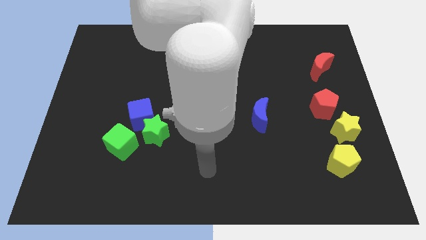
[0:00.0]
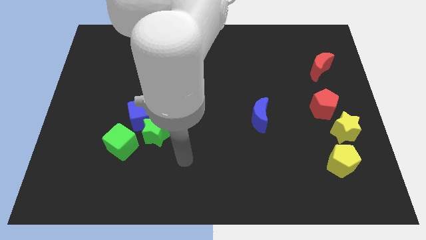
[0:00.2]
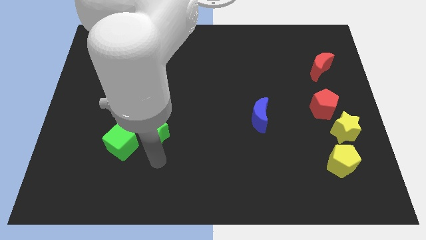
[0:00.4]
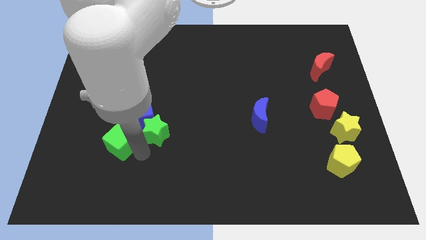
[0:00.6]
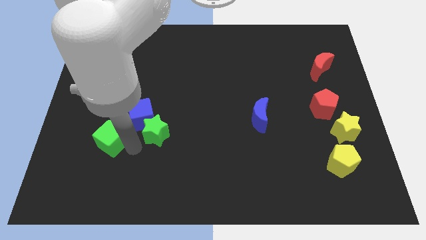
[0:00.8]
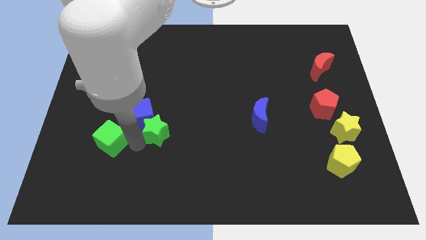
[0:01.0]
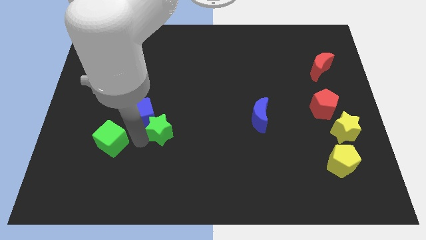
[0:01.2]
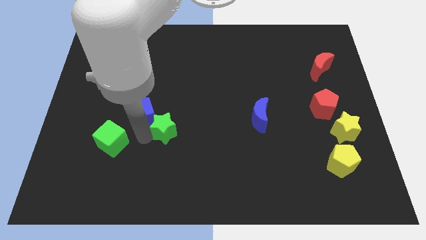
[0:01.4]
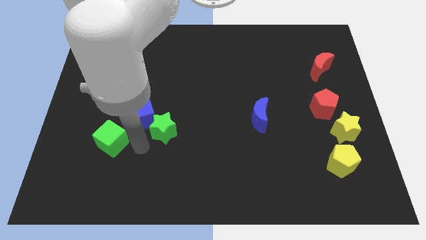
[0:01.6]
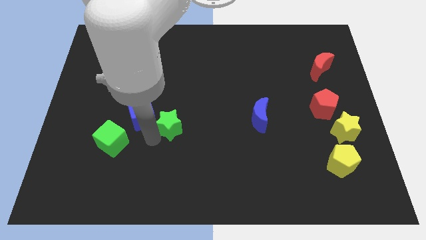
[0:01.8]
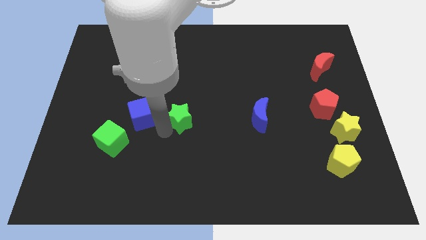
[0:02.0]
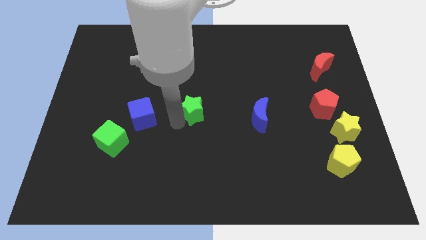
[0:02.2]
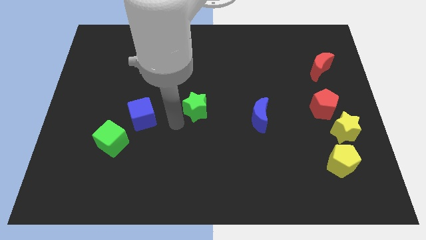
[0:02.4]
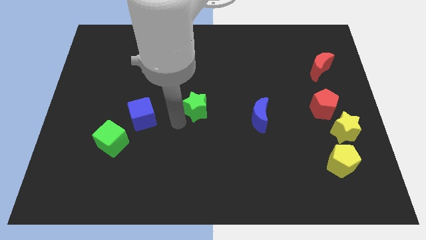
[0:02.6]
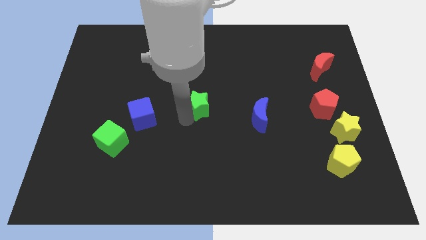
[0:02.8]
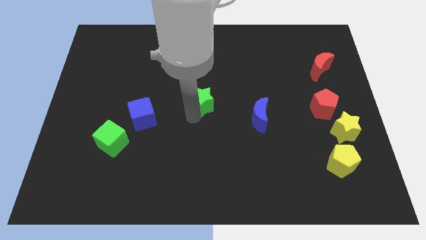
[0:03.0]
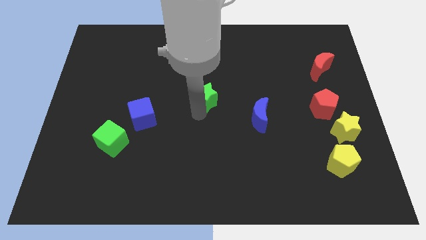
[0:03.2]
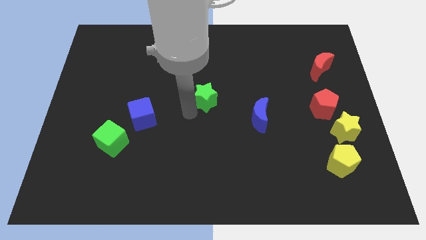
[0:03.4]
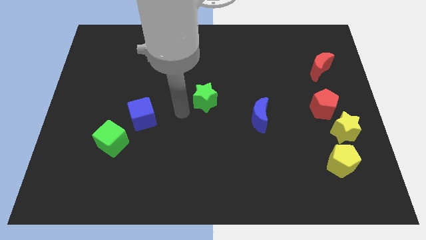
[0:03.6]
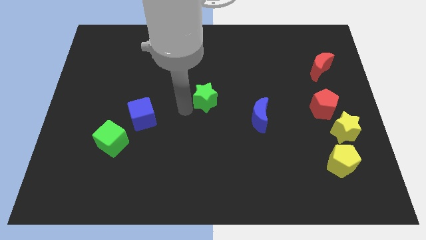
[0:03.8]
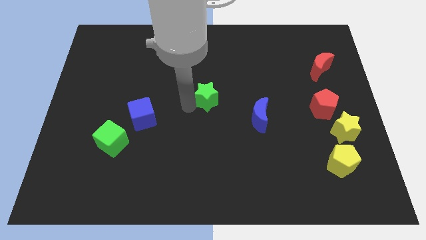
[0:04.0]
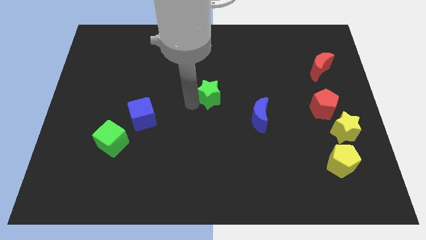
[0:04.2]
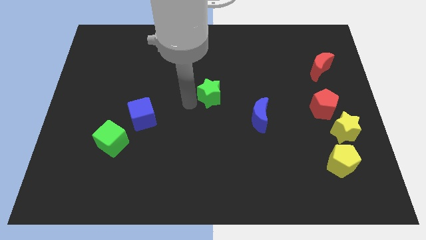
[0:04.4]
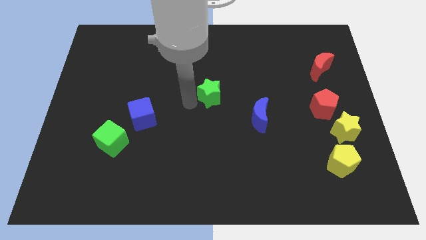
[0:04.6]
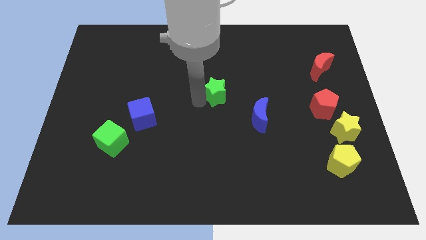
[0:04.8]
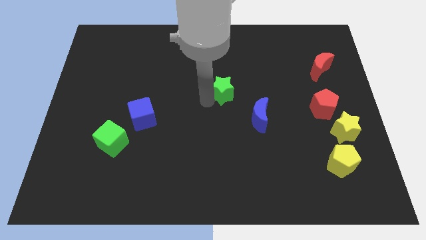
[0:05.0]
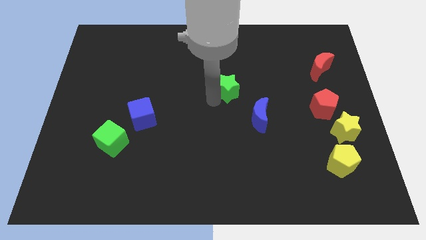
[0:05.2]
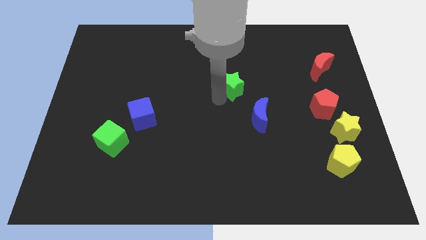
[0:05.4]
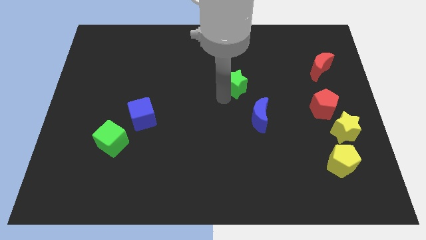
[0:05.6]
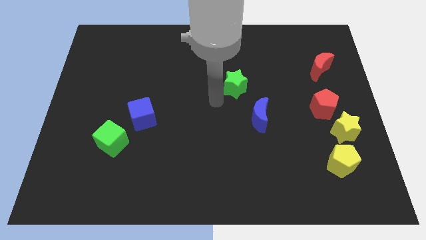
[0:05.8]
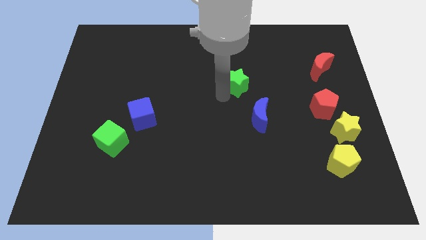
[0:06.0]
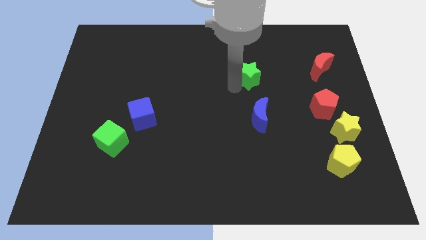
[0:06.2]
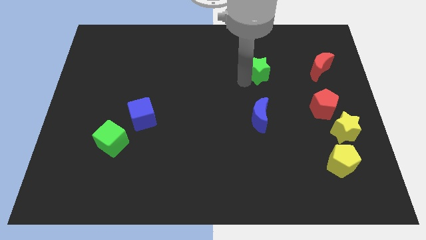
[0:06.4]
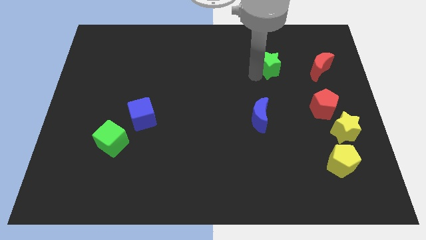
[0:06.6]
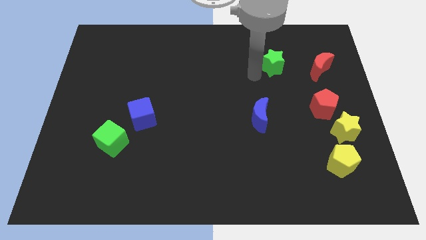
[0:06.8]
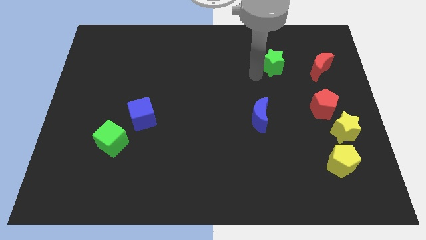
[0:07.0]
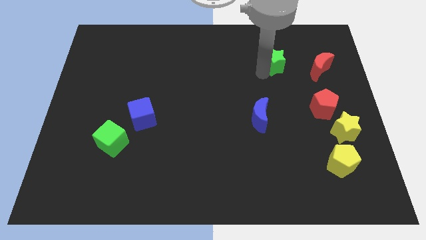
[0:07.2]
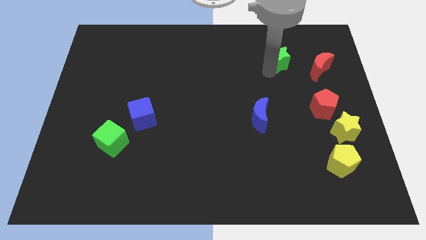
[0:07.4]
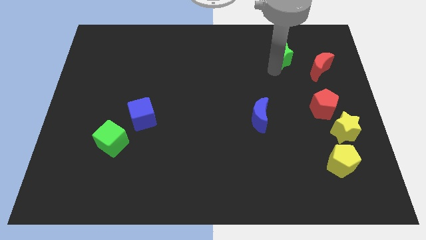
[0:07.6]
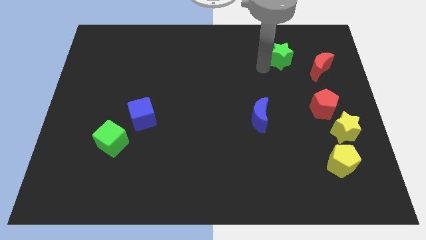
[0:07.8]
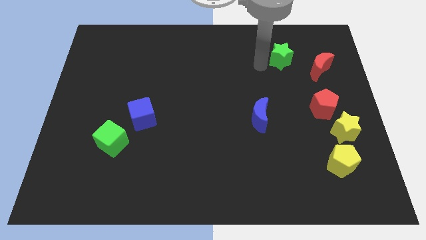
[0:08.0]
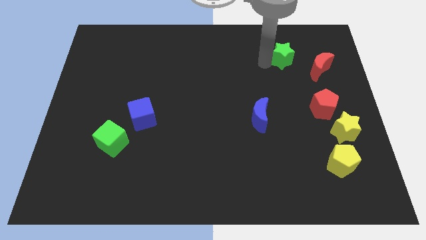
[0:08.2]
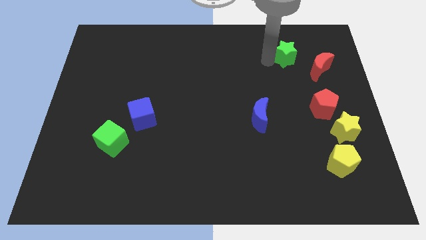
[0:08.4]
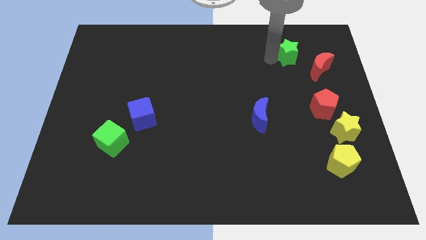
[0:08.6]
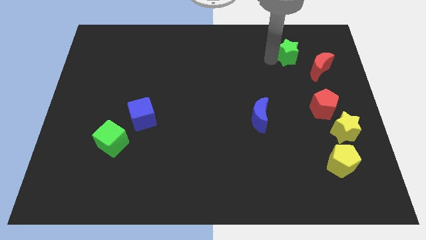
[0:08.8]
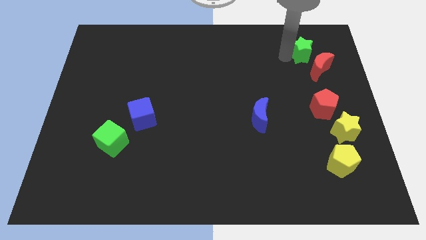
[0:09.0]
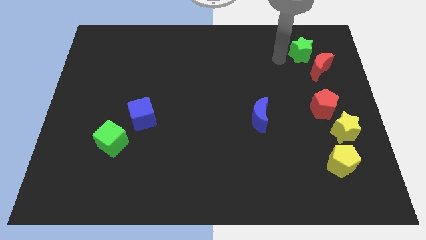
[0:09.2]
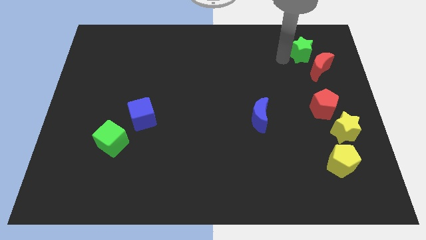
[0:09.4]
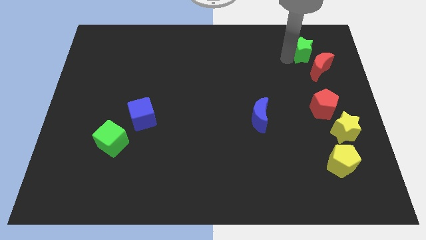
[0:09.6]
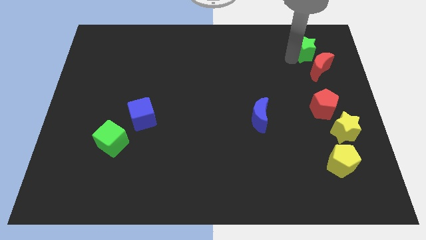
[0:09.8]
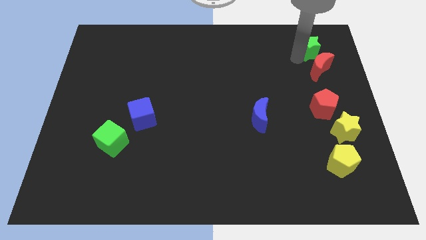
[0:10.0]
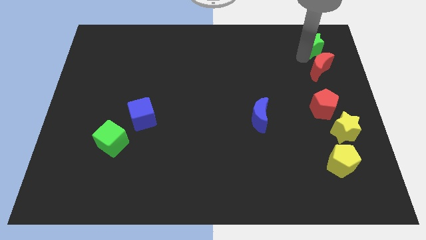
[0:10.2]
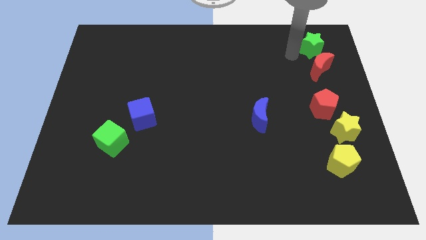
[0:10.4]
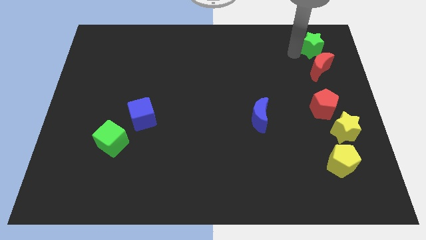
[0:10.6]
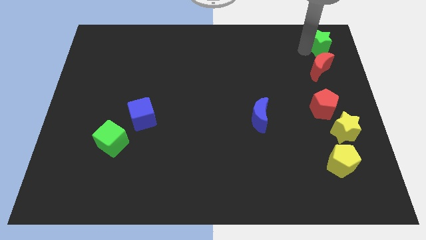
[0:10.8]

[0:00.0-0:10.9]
slide the green star to the top right of the board

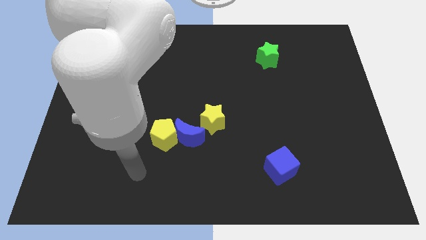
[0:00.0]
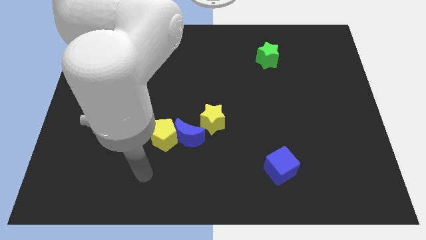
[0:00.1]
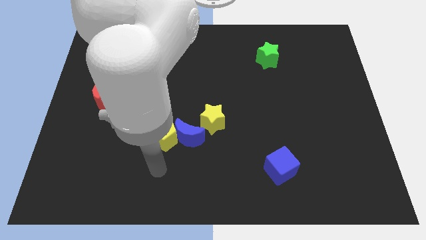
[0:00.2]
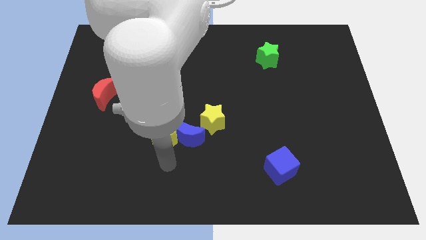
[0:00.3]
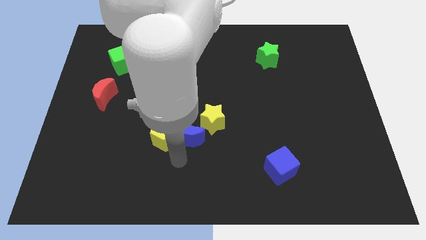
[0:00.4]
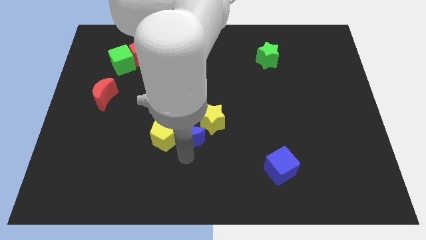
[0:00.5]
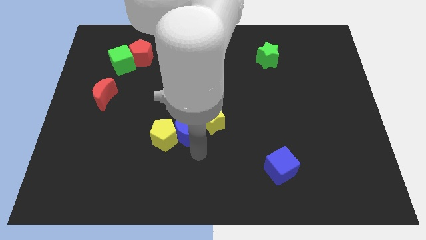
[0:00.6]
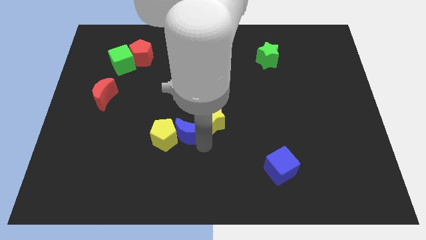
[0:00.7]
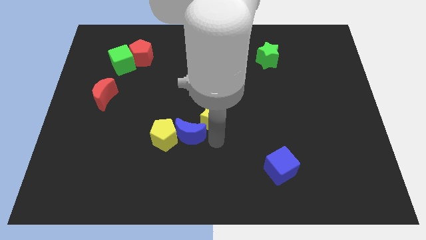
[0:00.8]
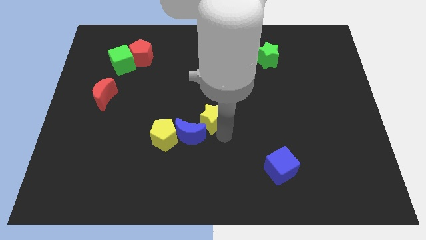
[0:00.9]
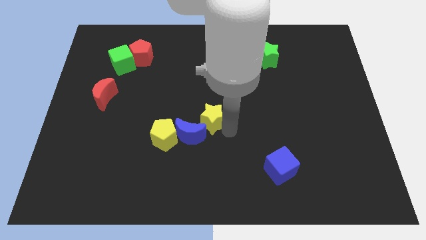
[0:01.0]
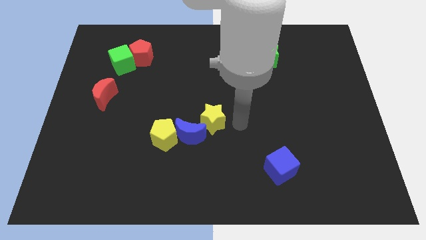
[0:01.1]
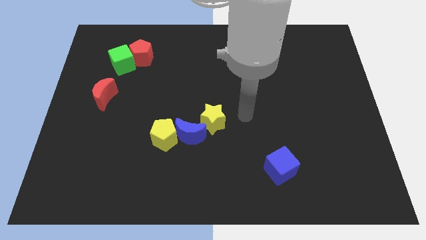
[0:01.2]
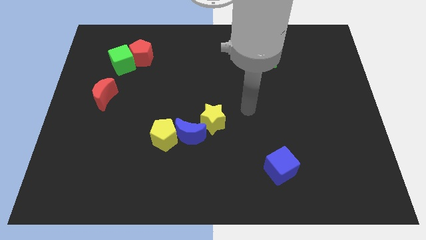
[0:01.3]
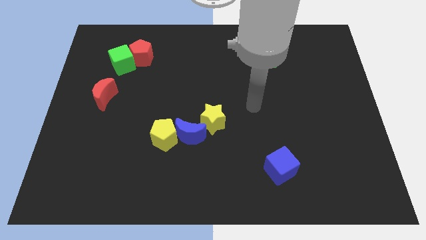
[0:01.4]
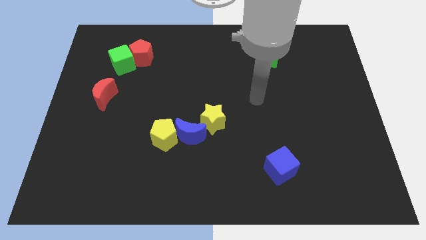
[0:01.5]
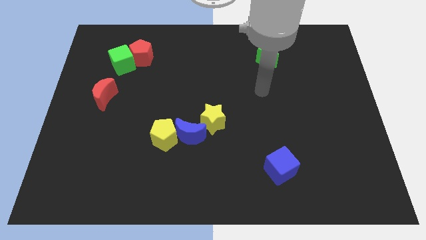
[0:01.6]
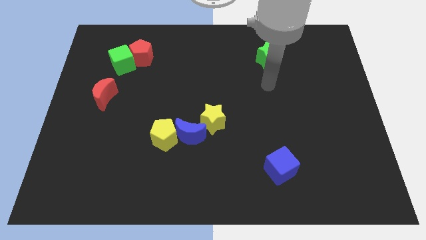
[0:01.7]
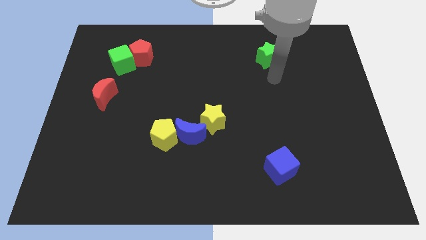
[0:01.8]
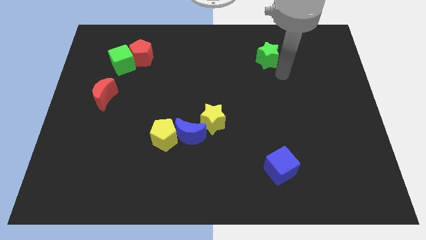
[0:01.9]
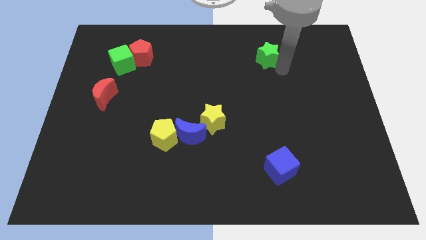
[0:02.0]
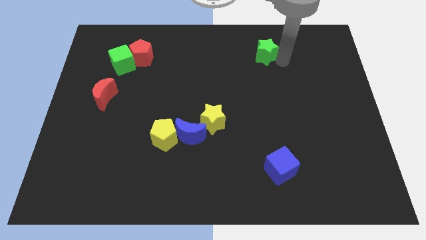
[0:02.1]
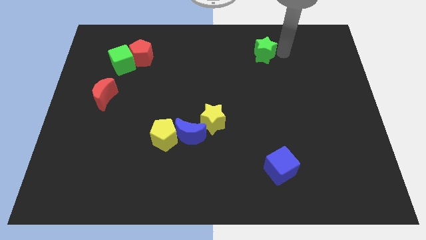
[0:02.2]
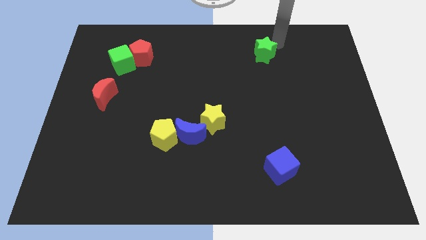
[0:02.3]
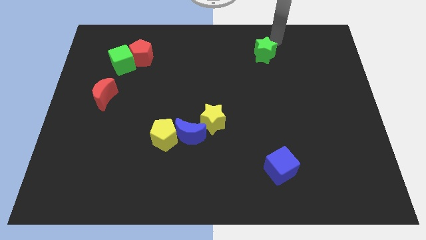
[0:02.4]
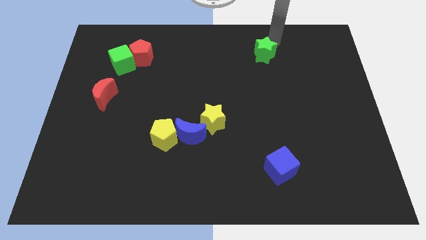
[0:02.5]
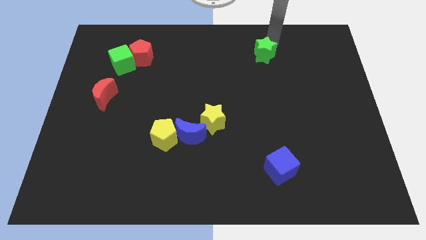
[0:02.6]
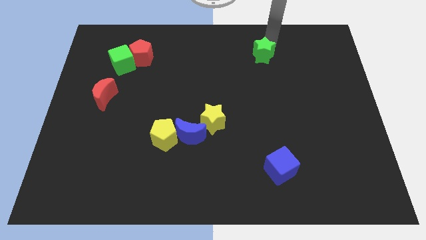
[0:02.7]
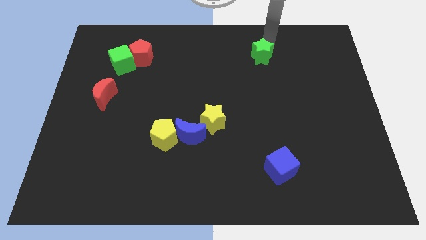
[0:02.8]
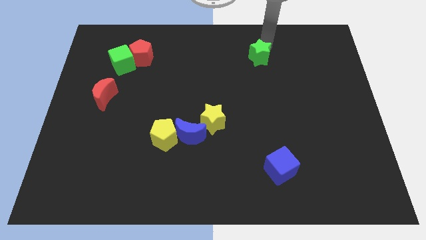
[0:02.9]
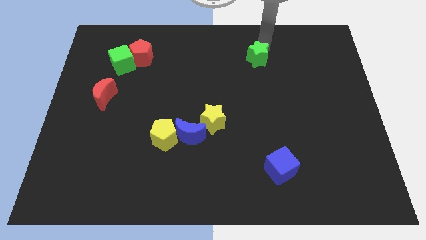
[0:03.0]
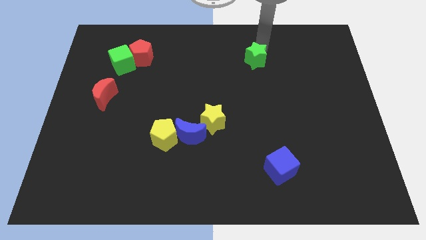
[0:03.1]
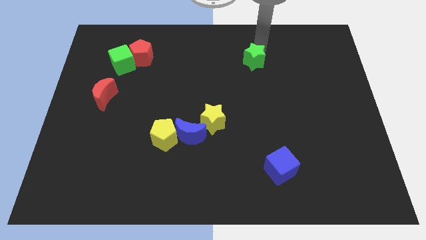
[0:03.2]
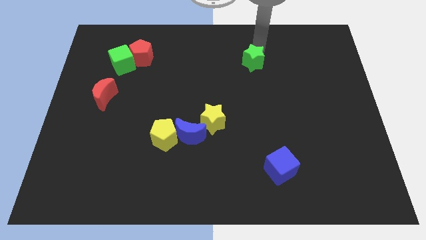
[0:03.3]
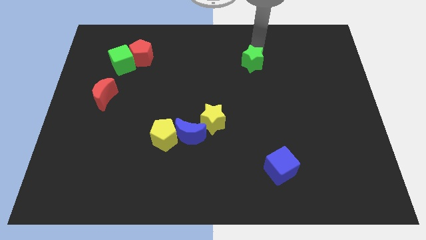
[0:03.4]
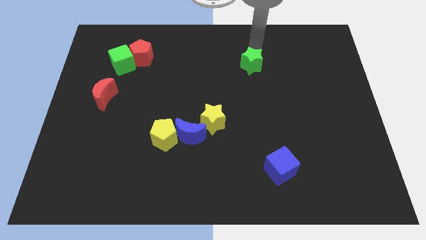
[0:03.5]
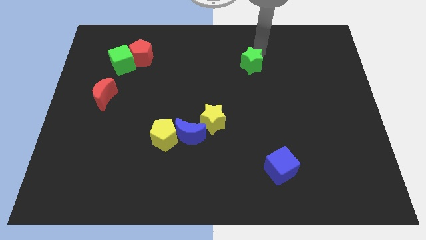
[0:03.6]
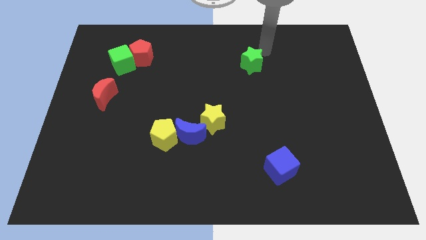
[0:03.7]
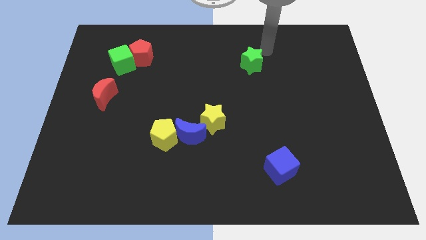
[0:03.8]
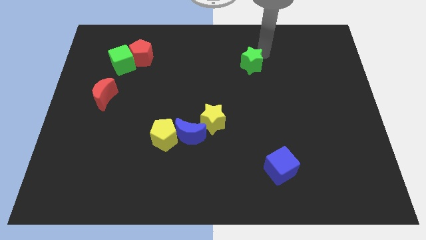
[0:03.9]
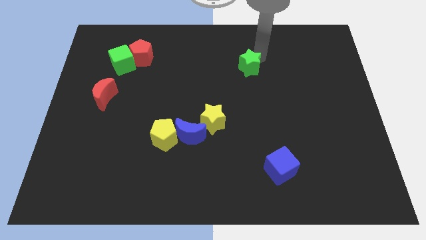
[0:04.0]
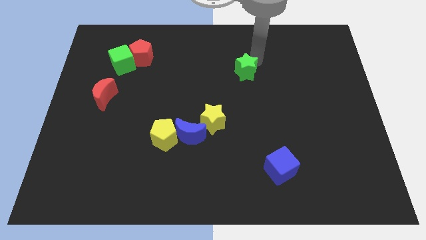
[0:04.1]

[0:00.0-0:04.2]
move the green star to the center
